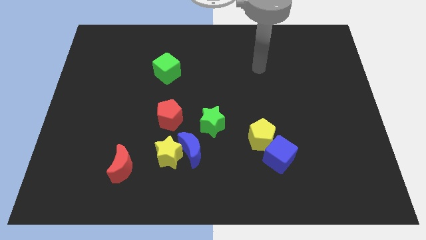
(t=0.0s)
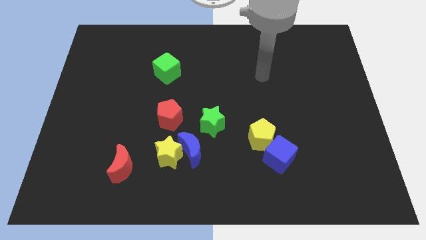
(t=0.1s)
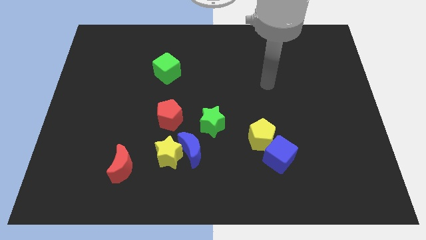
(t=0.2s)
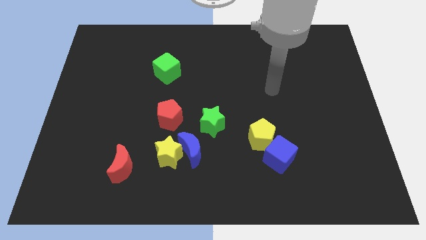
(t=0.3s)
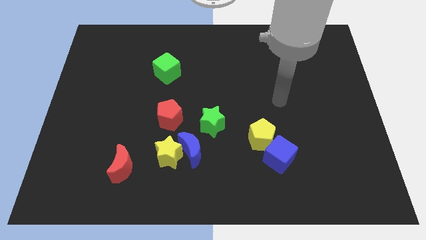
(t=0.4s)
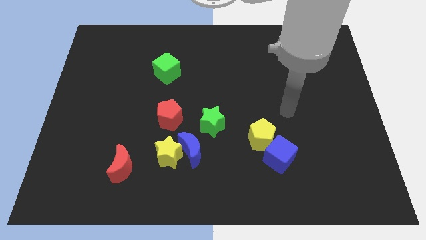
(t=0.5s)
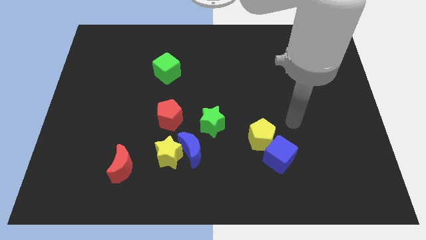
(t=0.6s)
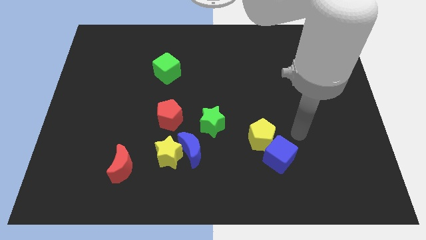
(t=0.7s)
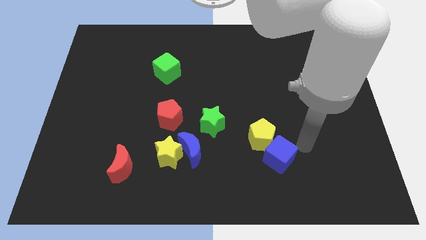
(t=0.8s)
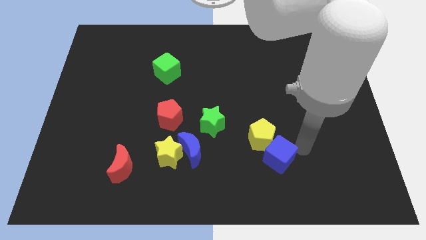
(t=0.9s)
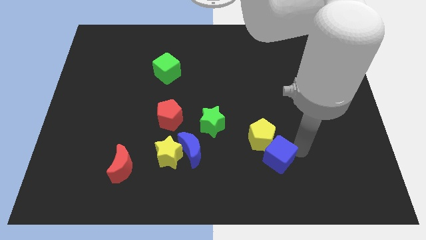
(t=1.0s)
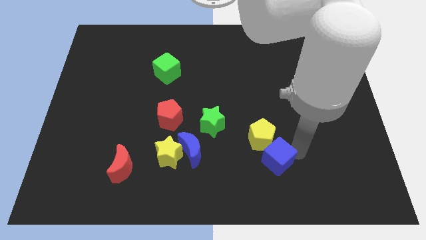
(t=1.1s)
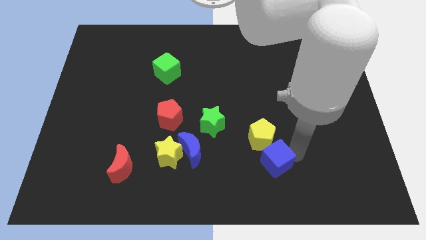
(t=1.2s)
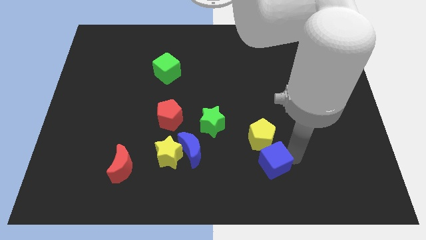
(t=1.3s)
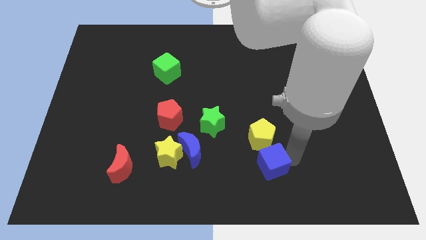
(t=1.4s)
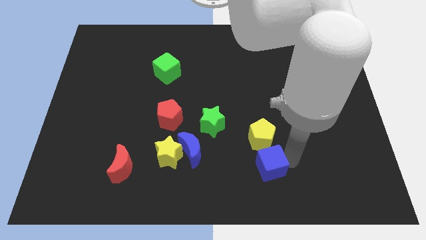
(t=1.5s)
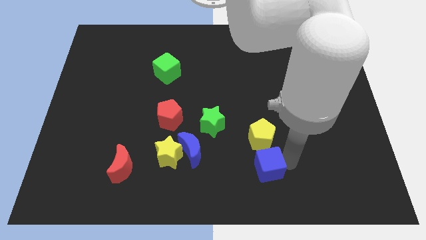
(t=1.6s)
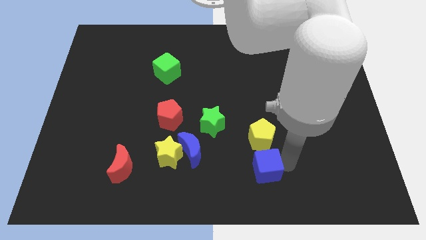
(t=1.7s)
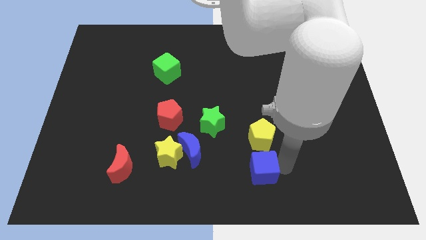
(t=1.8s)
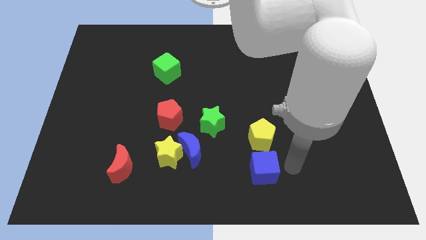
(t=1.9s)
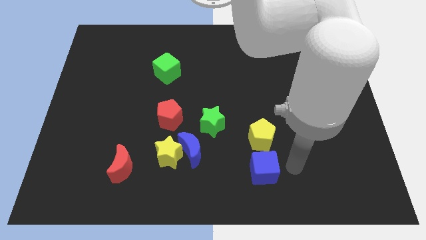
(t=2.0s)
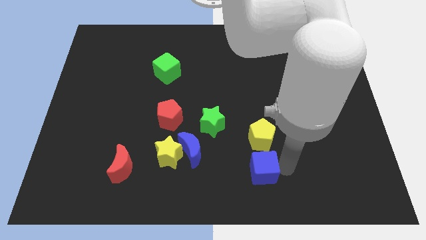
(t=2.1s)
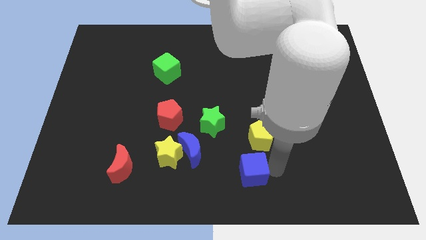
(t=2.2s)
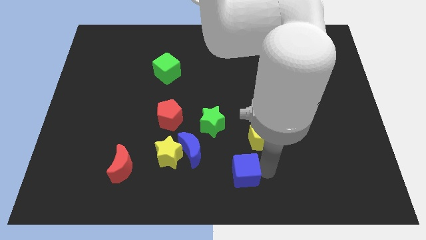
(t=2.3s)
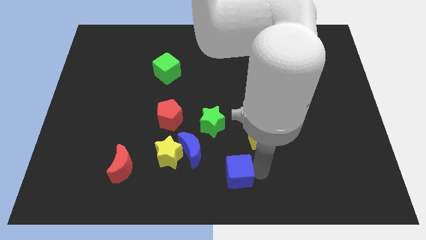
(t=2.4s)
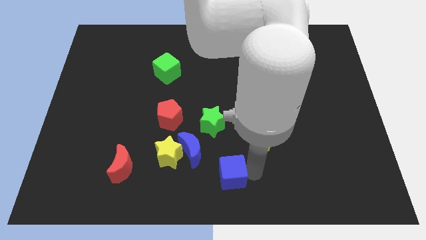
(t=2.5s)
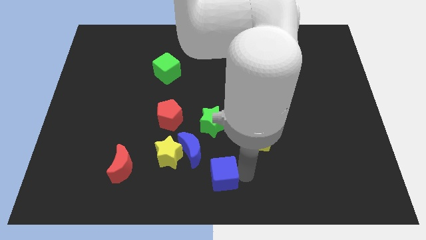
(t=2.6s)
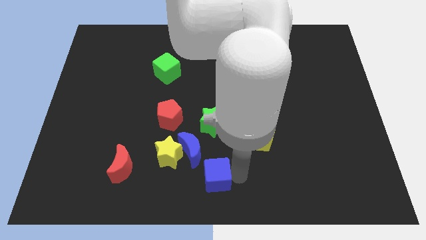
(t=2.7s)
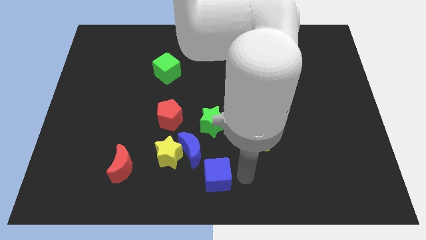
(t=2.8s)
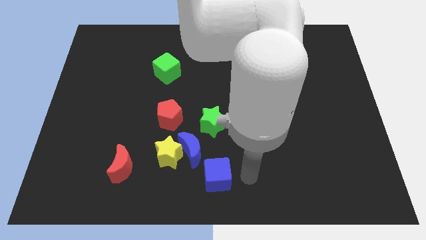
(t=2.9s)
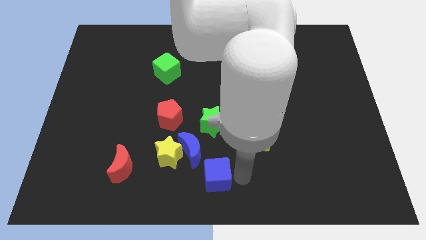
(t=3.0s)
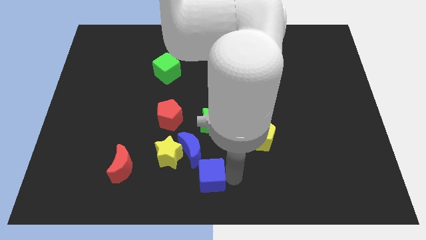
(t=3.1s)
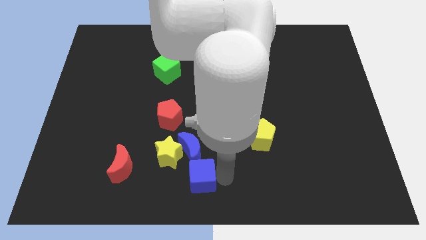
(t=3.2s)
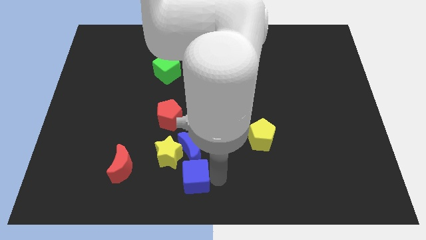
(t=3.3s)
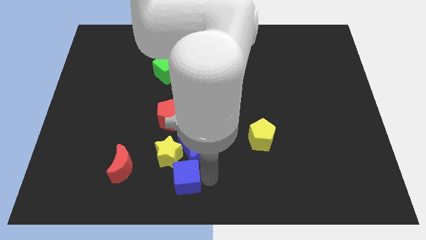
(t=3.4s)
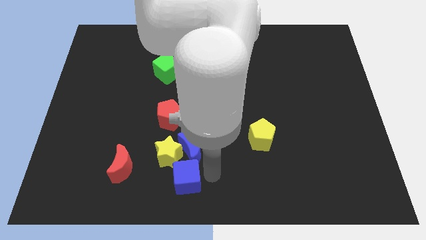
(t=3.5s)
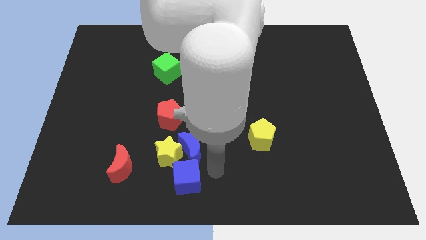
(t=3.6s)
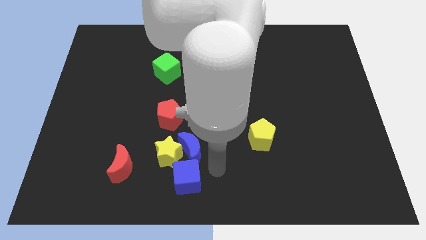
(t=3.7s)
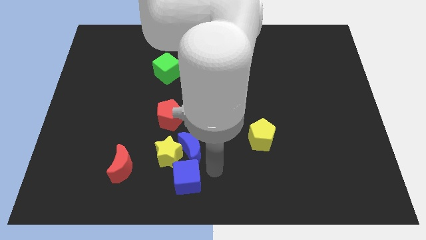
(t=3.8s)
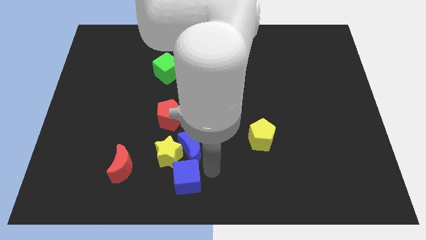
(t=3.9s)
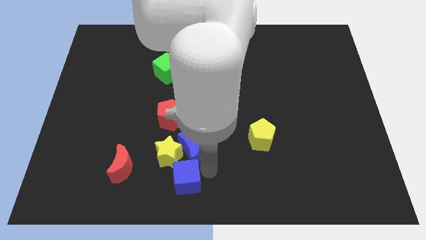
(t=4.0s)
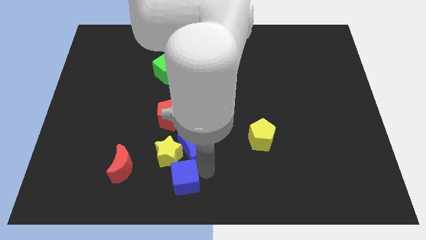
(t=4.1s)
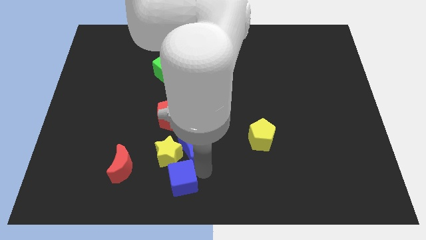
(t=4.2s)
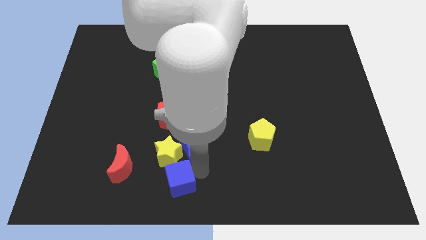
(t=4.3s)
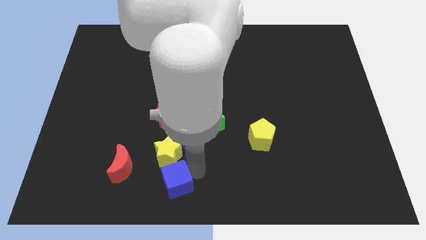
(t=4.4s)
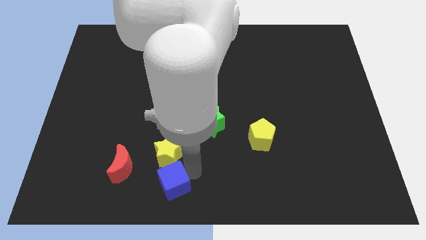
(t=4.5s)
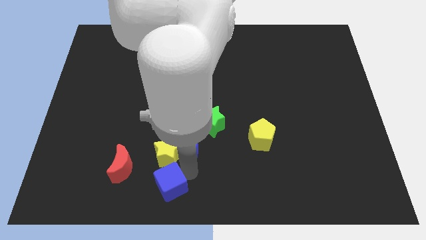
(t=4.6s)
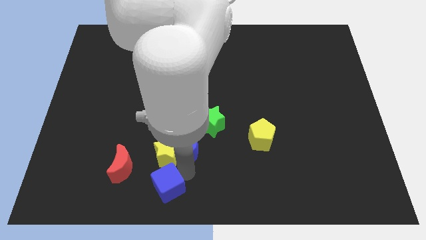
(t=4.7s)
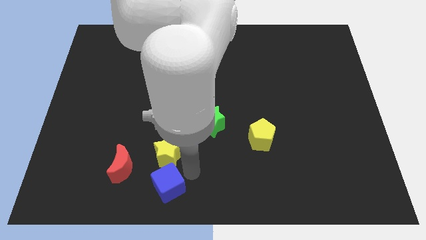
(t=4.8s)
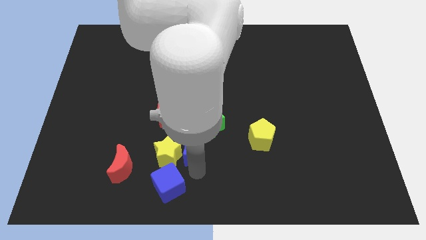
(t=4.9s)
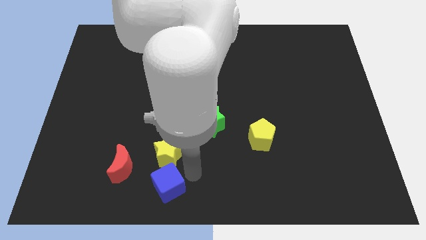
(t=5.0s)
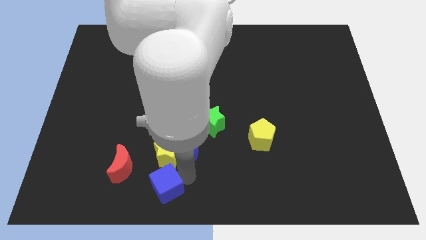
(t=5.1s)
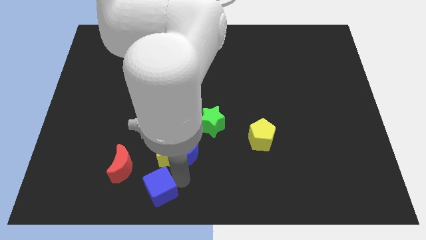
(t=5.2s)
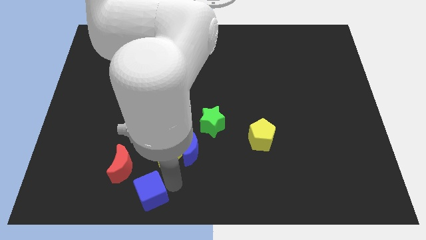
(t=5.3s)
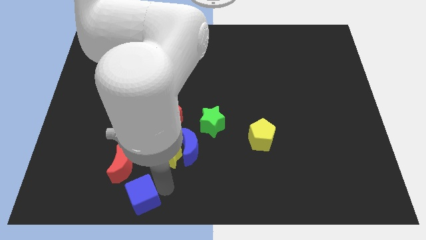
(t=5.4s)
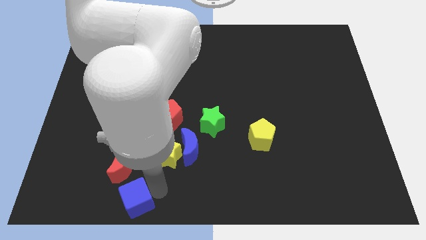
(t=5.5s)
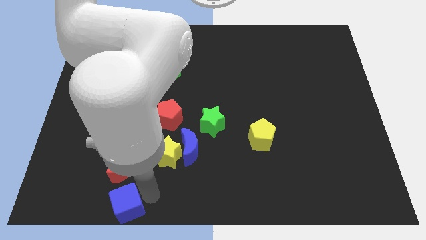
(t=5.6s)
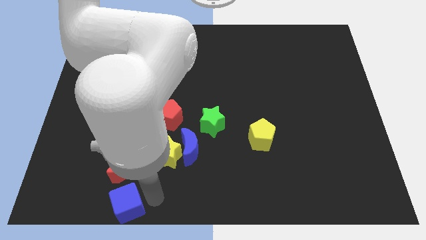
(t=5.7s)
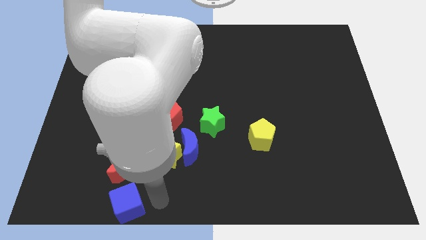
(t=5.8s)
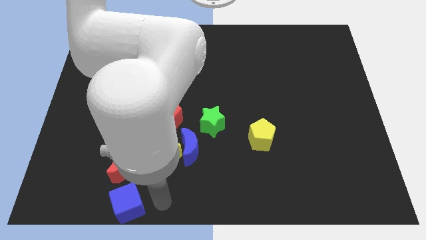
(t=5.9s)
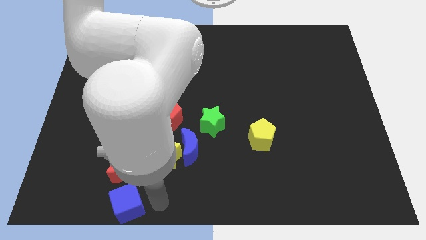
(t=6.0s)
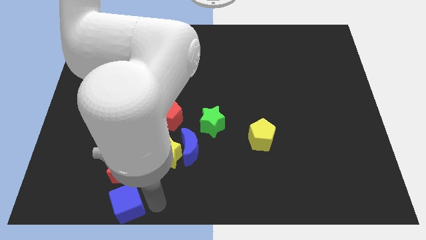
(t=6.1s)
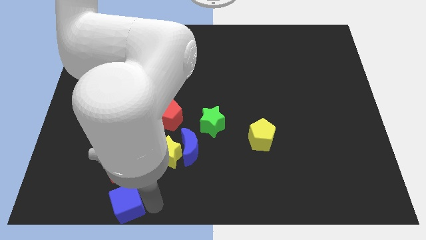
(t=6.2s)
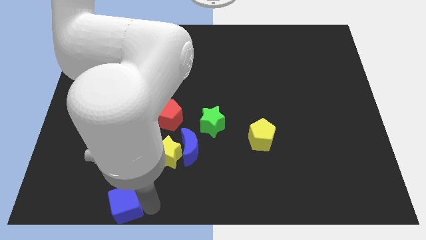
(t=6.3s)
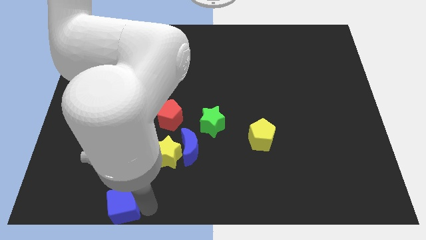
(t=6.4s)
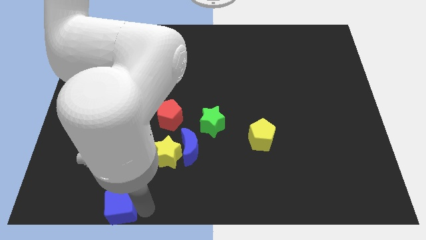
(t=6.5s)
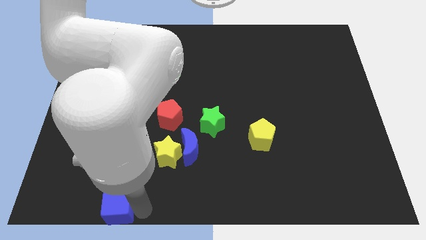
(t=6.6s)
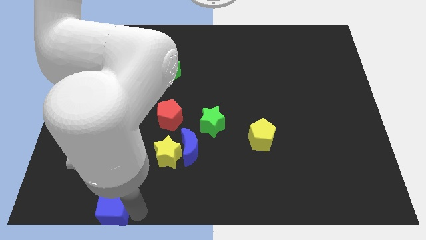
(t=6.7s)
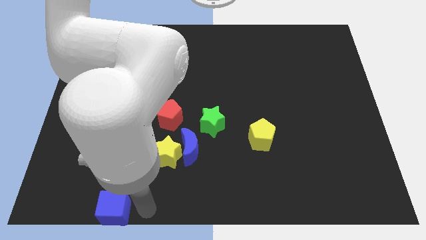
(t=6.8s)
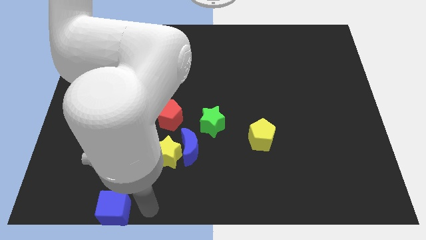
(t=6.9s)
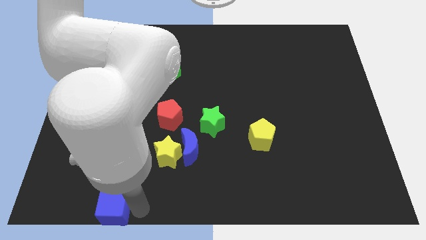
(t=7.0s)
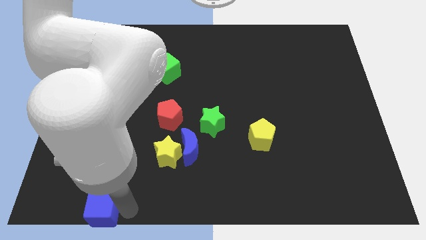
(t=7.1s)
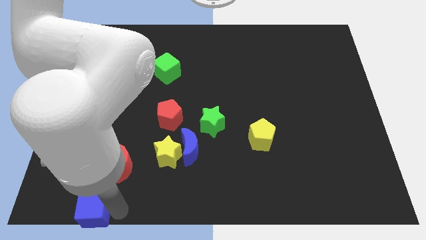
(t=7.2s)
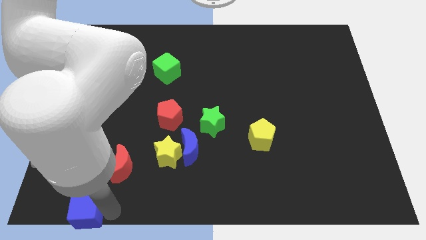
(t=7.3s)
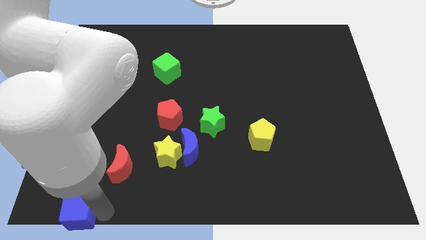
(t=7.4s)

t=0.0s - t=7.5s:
move the blue cube to the lower left corner
